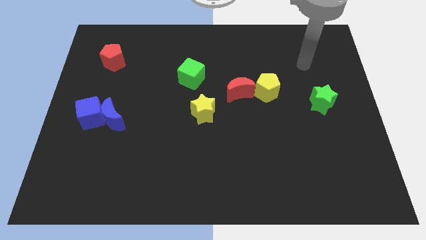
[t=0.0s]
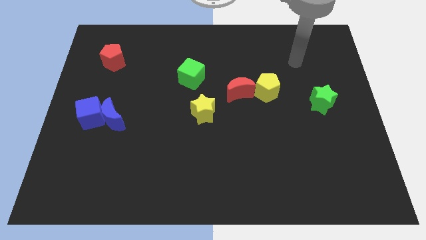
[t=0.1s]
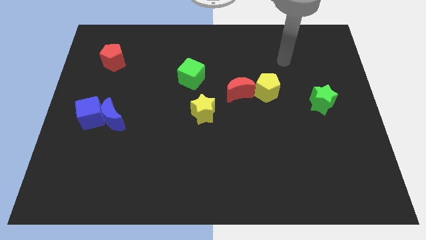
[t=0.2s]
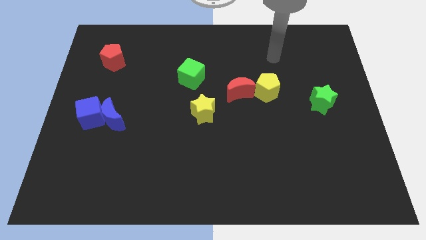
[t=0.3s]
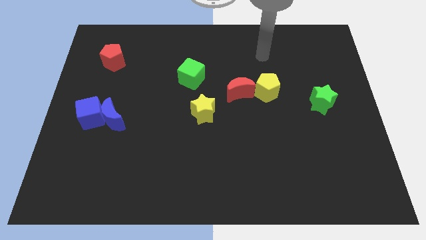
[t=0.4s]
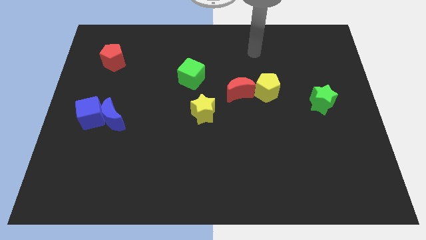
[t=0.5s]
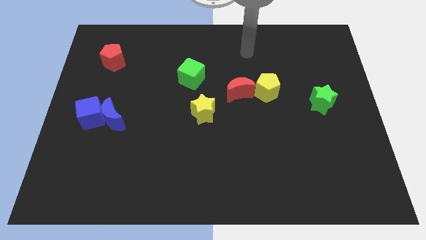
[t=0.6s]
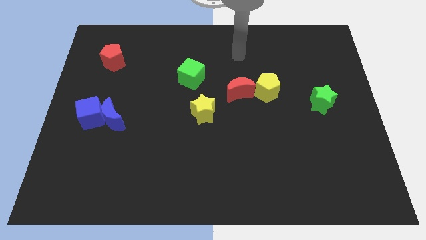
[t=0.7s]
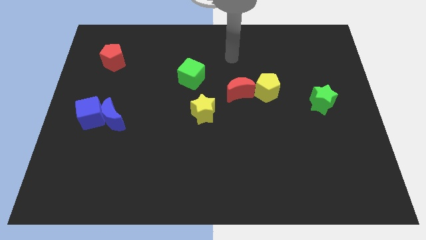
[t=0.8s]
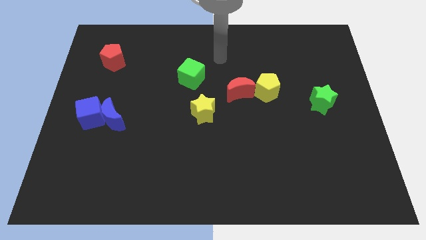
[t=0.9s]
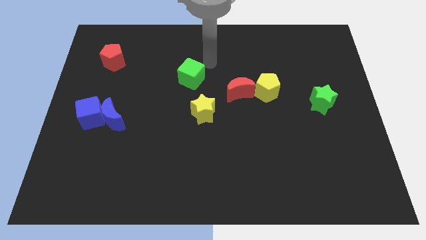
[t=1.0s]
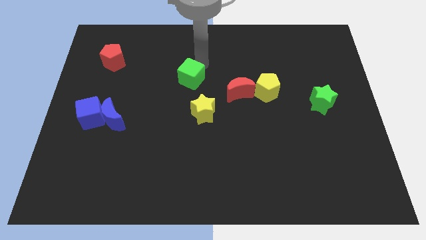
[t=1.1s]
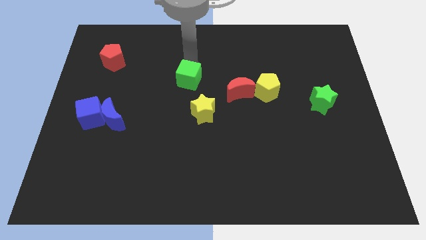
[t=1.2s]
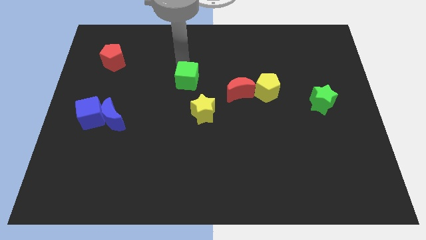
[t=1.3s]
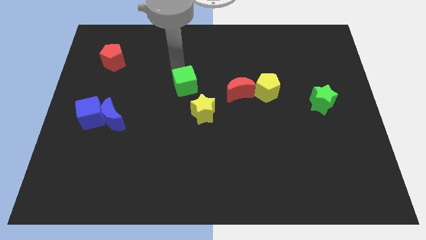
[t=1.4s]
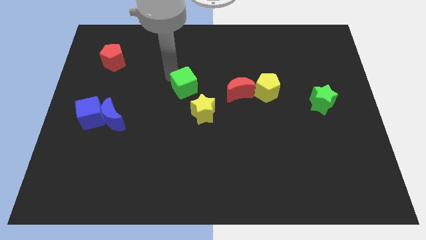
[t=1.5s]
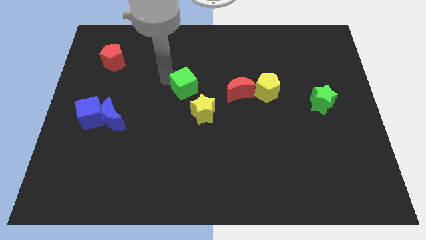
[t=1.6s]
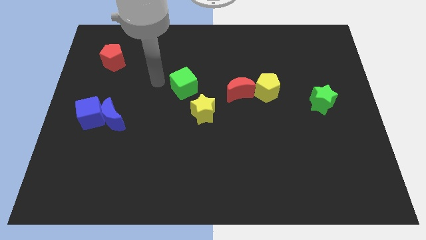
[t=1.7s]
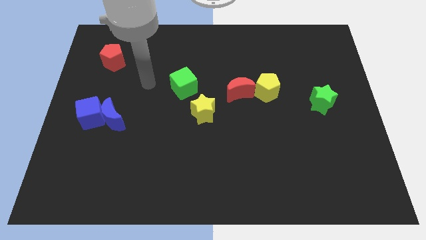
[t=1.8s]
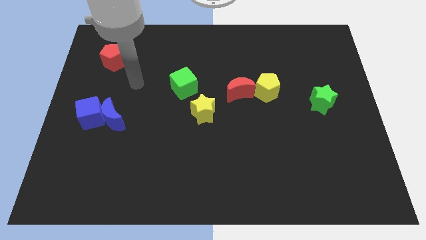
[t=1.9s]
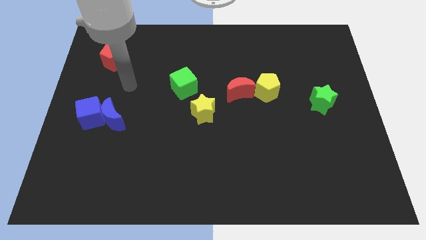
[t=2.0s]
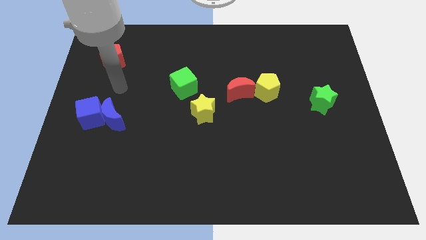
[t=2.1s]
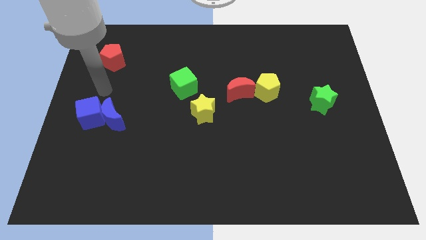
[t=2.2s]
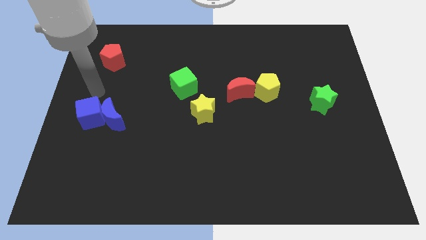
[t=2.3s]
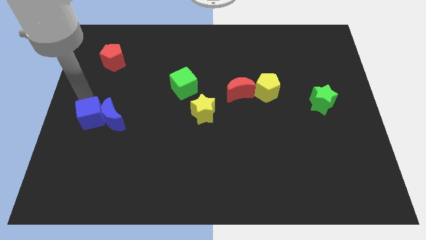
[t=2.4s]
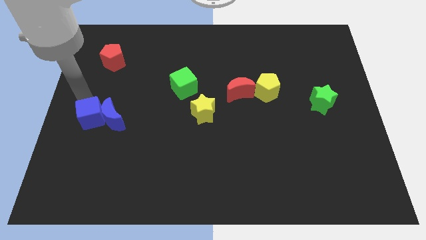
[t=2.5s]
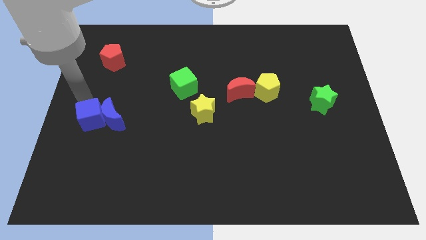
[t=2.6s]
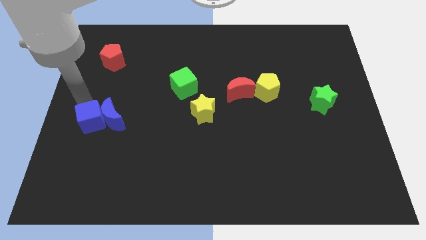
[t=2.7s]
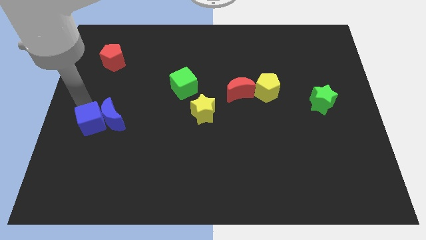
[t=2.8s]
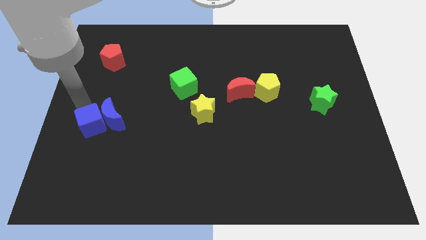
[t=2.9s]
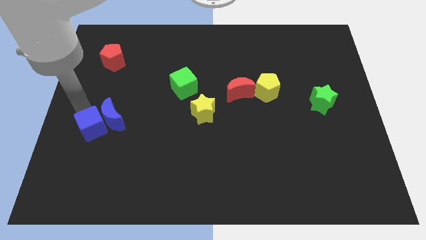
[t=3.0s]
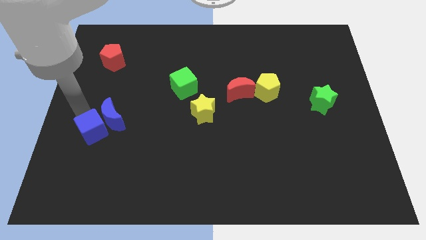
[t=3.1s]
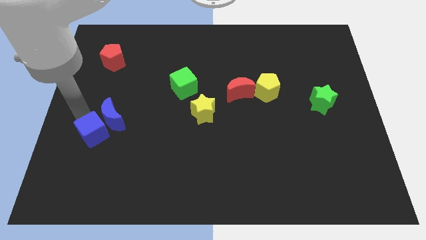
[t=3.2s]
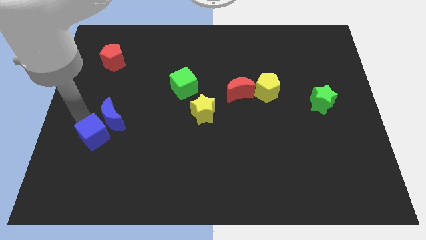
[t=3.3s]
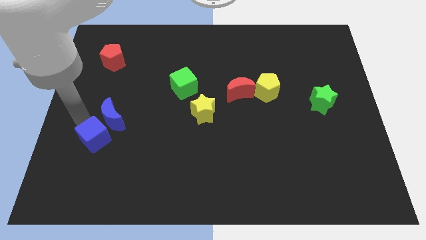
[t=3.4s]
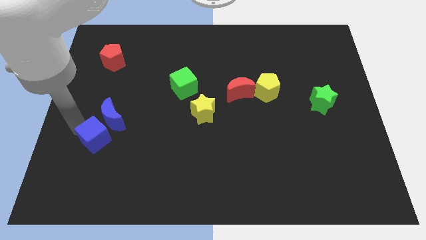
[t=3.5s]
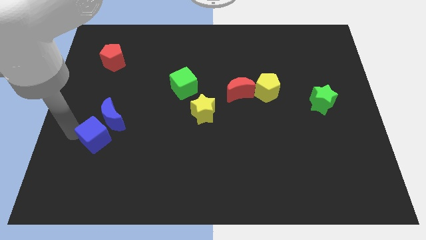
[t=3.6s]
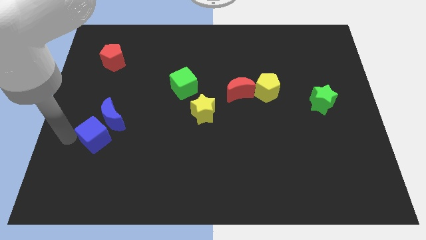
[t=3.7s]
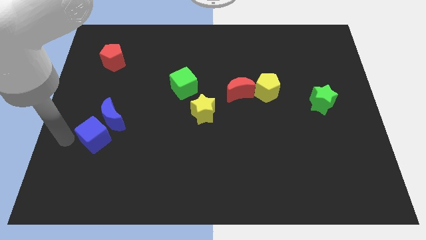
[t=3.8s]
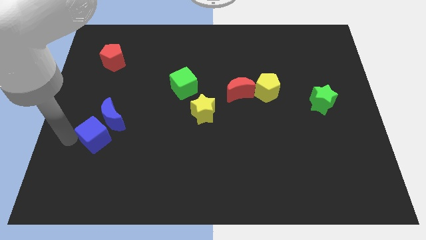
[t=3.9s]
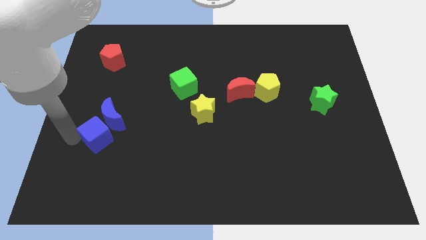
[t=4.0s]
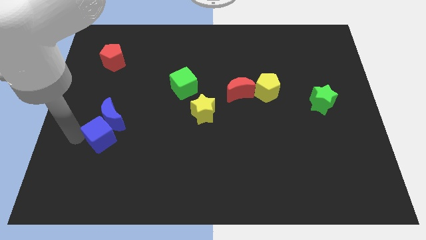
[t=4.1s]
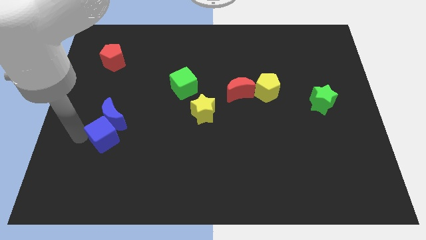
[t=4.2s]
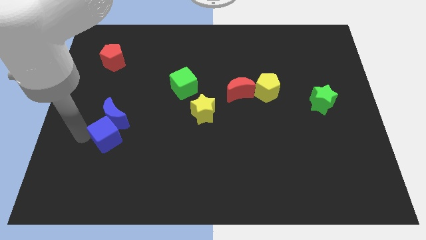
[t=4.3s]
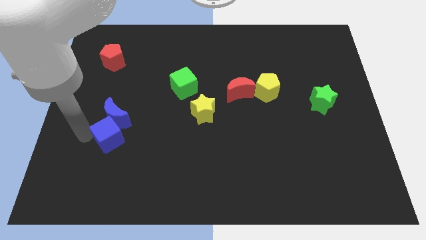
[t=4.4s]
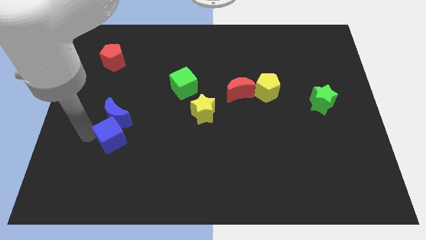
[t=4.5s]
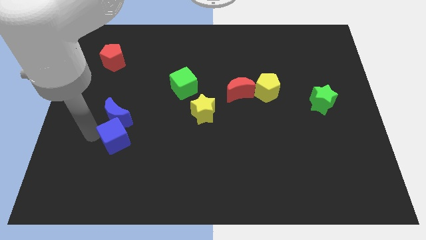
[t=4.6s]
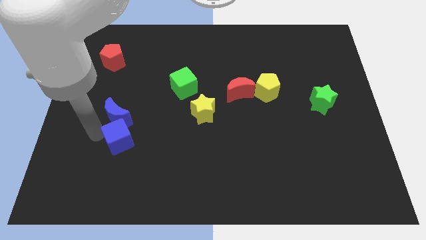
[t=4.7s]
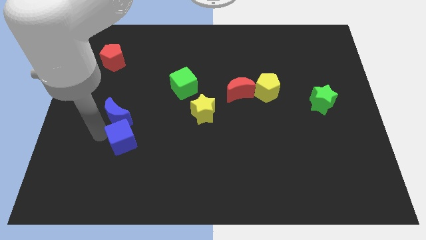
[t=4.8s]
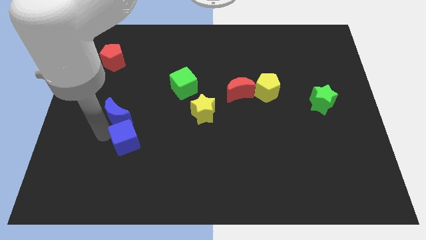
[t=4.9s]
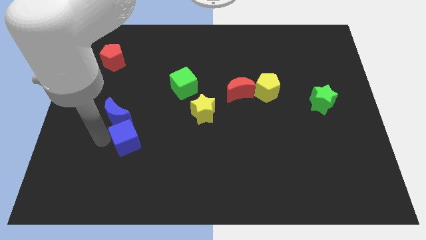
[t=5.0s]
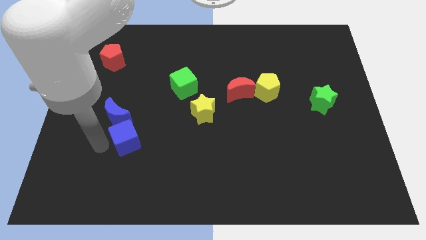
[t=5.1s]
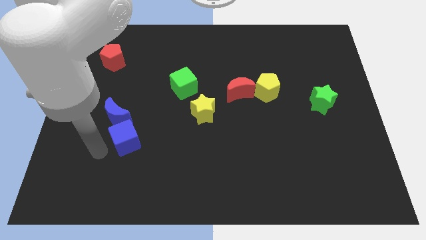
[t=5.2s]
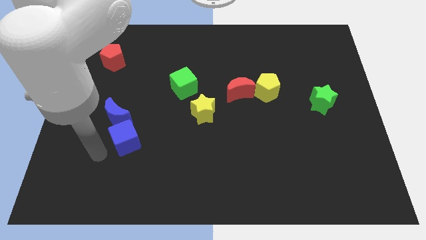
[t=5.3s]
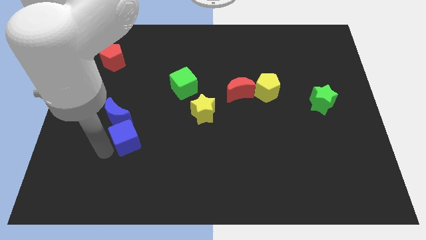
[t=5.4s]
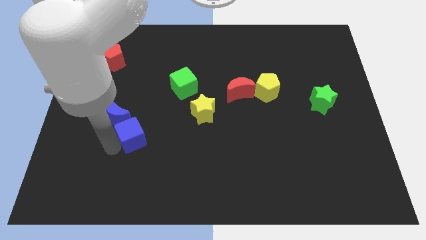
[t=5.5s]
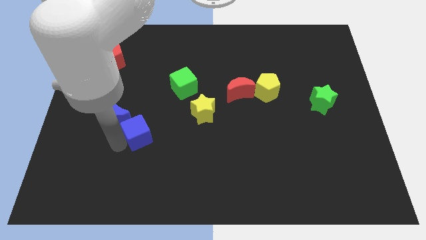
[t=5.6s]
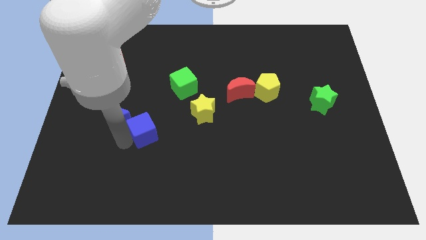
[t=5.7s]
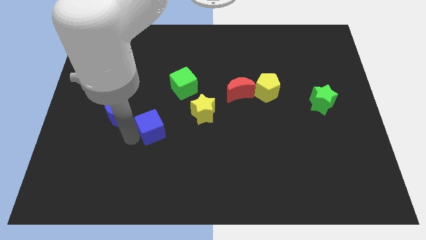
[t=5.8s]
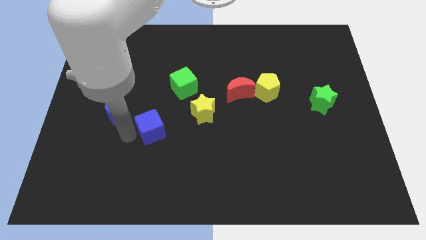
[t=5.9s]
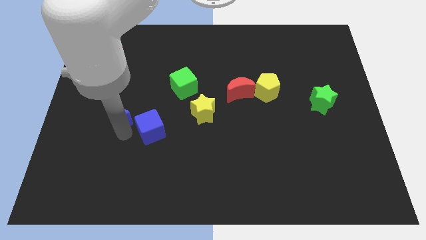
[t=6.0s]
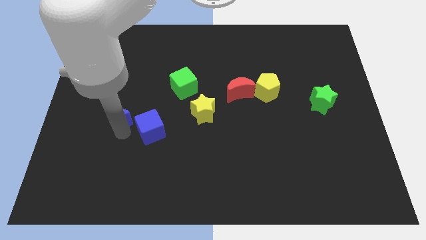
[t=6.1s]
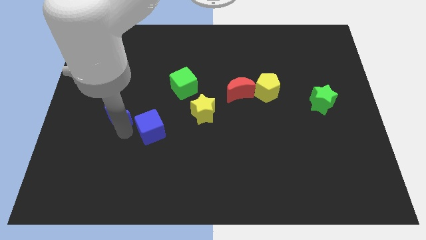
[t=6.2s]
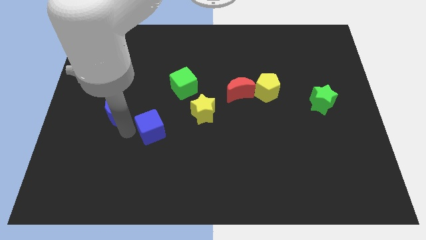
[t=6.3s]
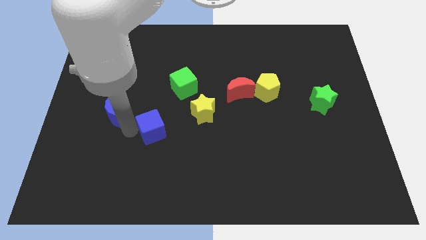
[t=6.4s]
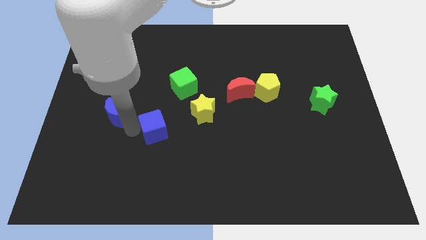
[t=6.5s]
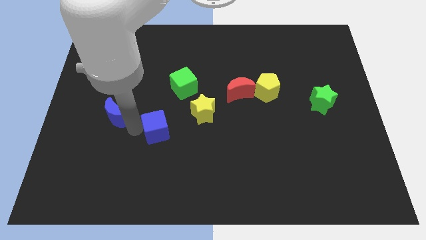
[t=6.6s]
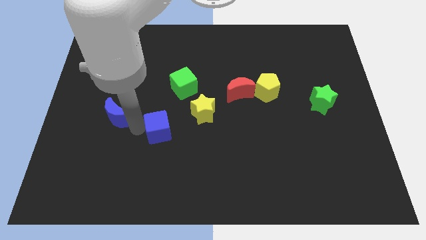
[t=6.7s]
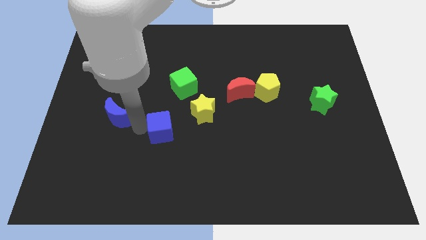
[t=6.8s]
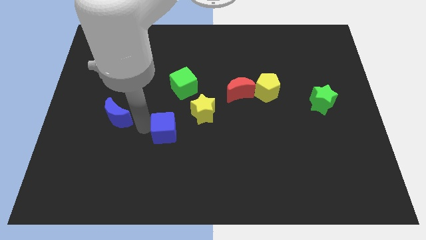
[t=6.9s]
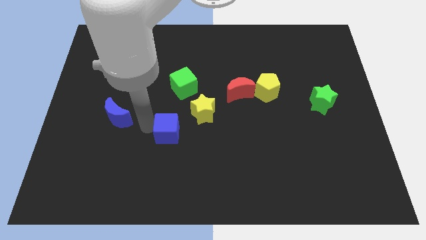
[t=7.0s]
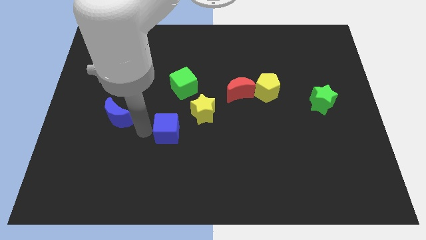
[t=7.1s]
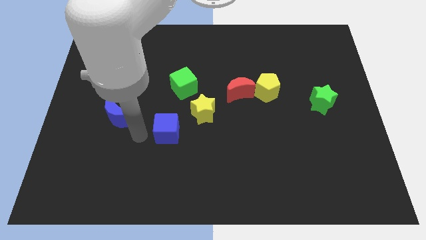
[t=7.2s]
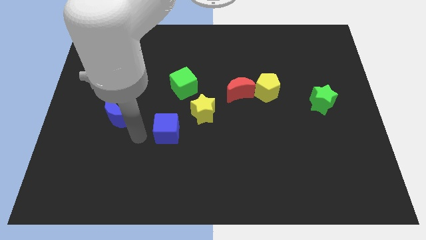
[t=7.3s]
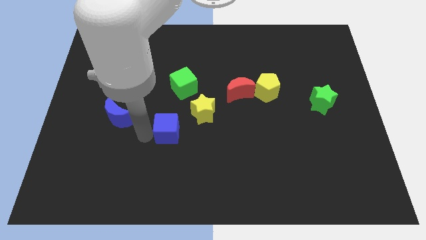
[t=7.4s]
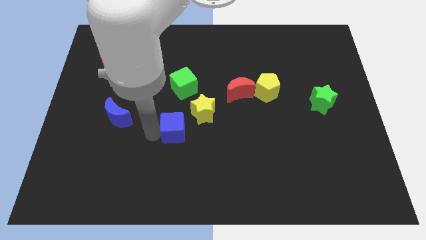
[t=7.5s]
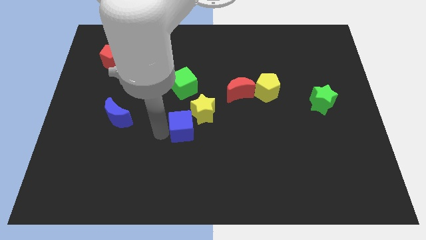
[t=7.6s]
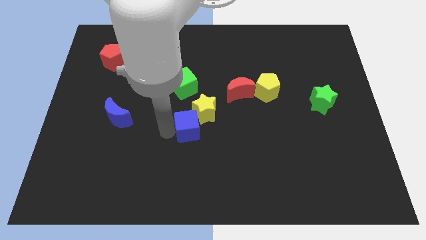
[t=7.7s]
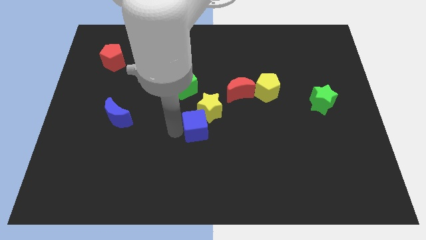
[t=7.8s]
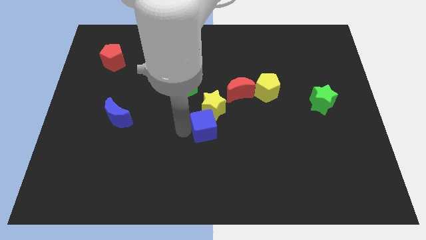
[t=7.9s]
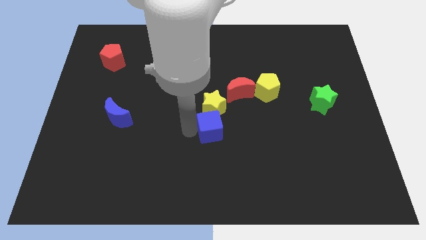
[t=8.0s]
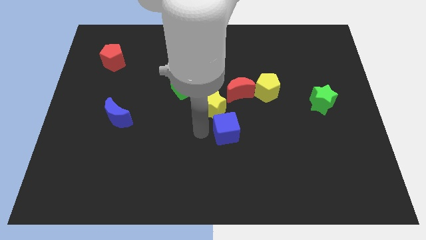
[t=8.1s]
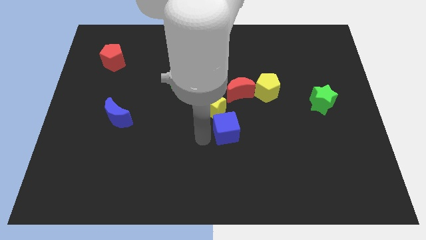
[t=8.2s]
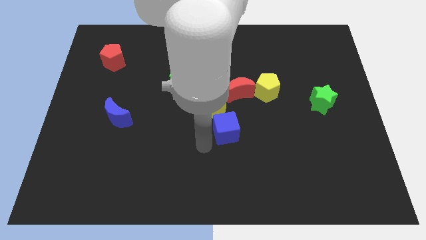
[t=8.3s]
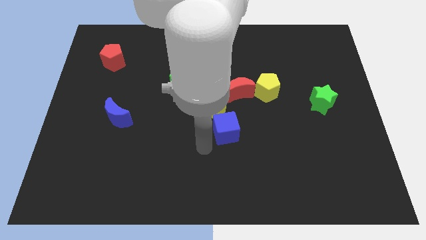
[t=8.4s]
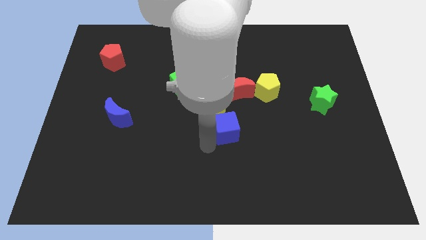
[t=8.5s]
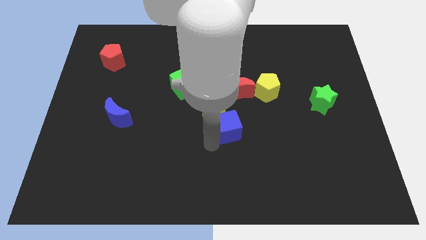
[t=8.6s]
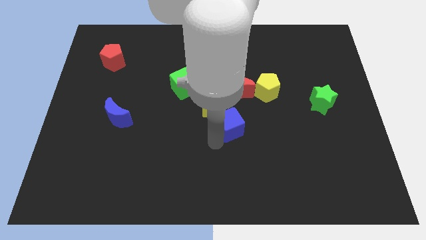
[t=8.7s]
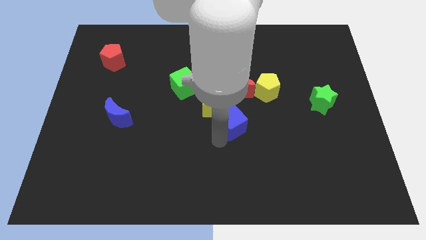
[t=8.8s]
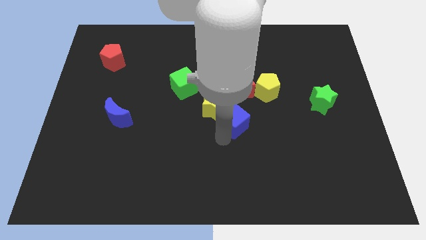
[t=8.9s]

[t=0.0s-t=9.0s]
move the blue cube just right of the yellow star
